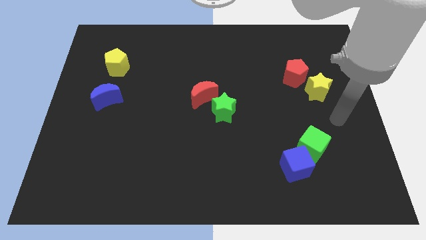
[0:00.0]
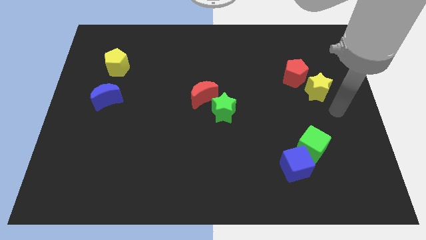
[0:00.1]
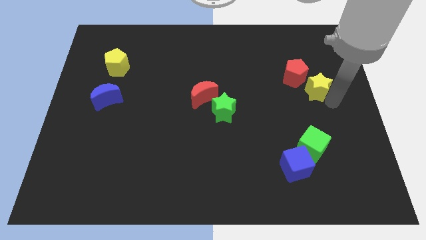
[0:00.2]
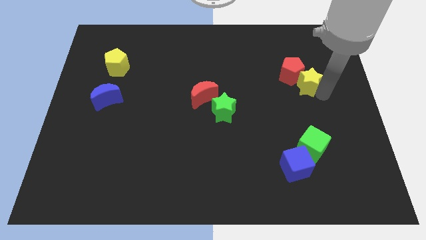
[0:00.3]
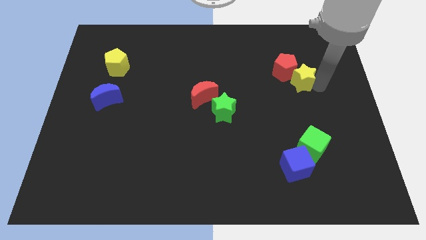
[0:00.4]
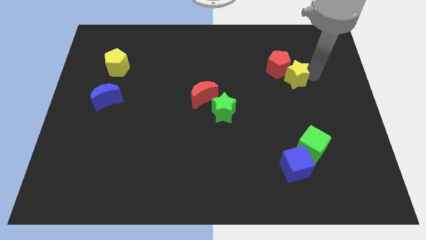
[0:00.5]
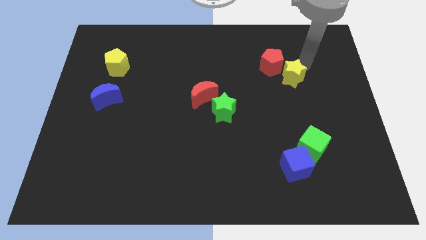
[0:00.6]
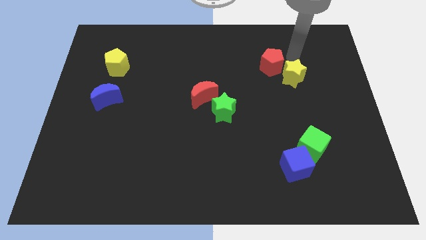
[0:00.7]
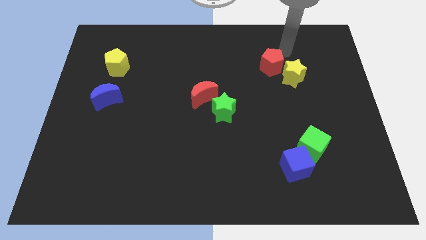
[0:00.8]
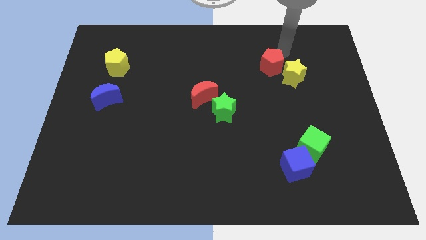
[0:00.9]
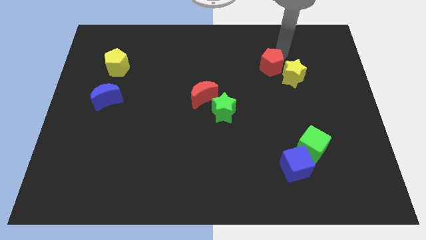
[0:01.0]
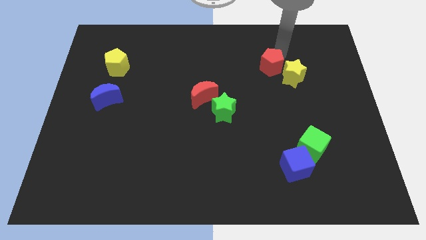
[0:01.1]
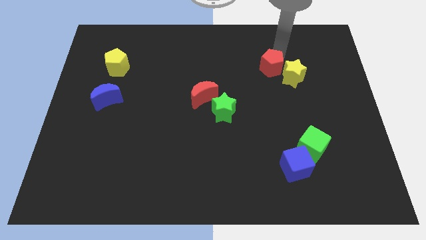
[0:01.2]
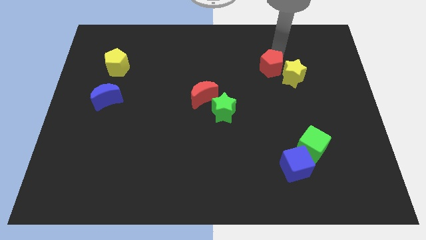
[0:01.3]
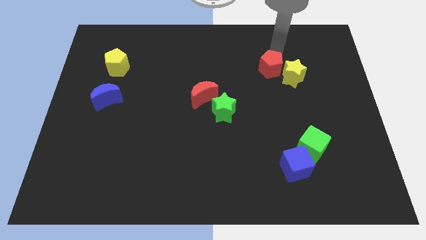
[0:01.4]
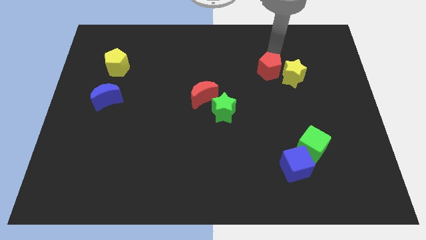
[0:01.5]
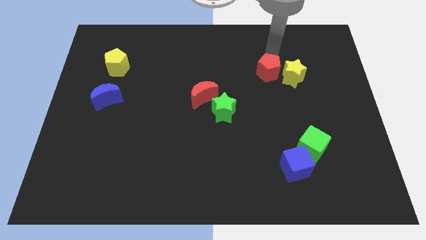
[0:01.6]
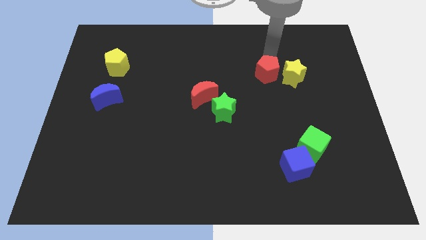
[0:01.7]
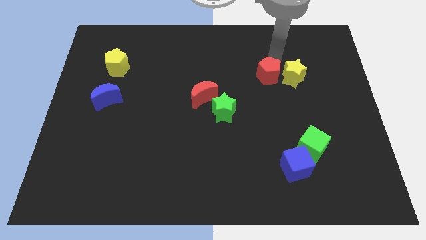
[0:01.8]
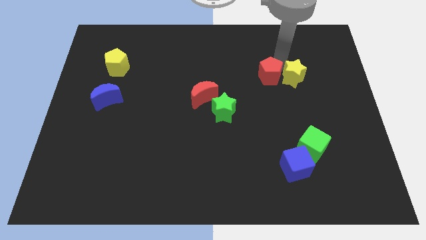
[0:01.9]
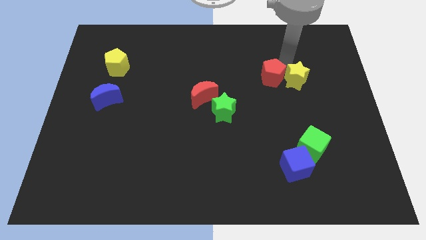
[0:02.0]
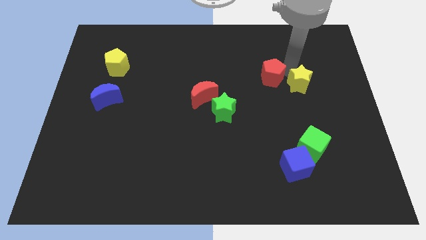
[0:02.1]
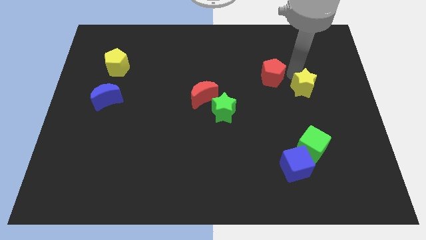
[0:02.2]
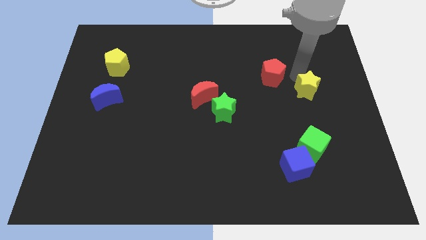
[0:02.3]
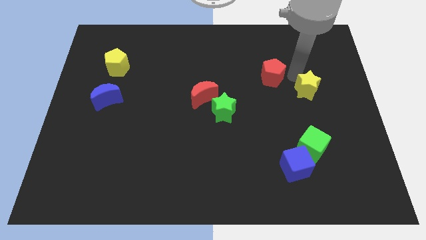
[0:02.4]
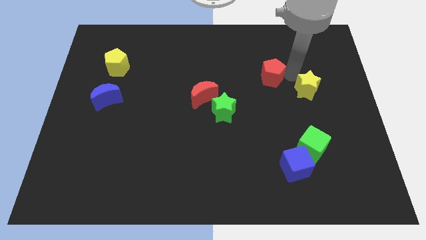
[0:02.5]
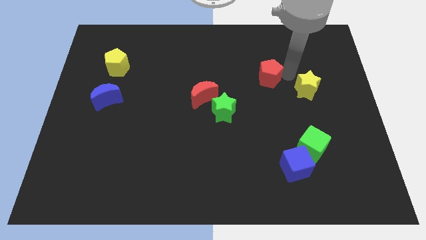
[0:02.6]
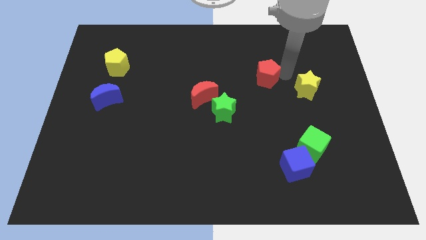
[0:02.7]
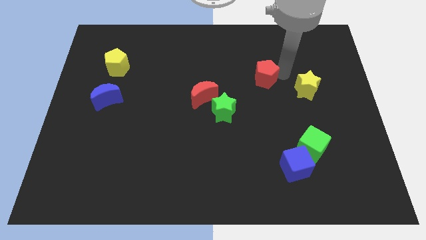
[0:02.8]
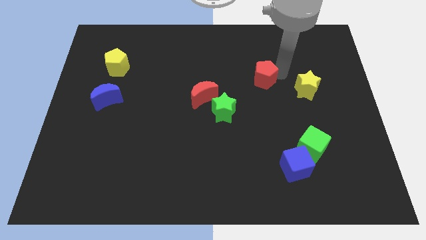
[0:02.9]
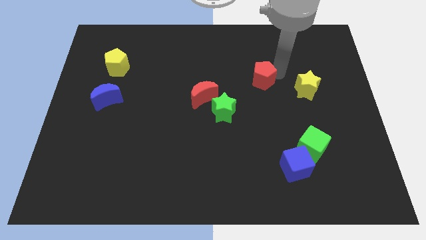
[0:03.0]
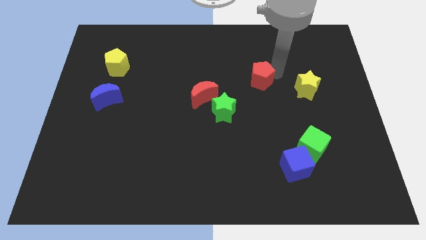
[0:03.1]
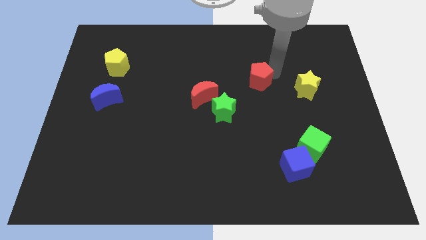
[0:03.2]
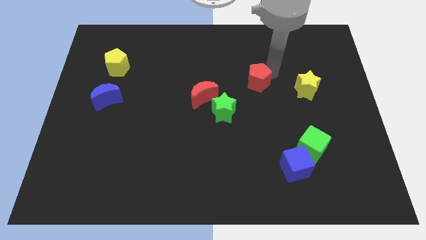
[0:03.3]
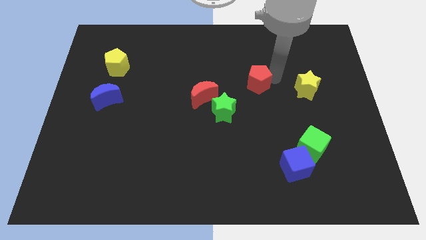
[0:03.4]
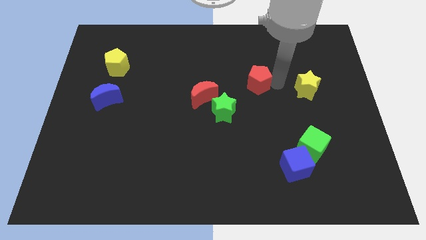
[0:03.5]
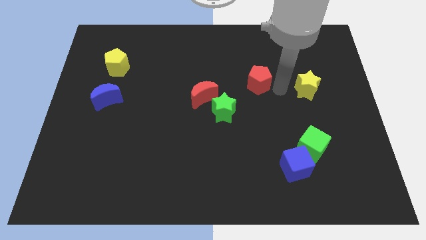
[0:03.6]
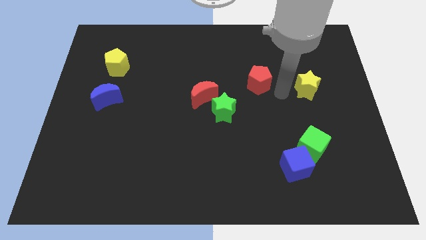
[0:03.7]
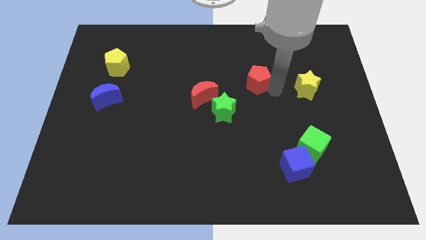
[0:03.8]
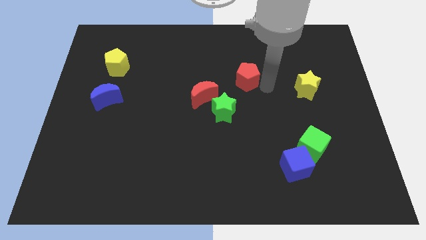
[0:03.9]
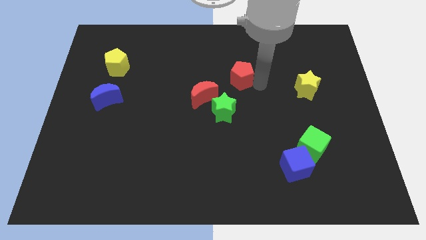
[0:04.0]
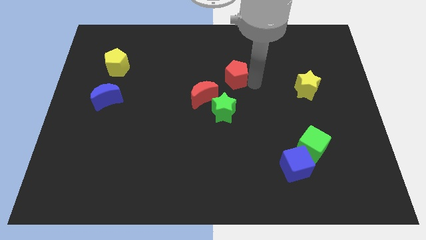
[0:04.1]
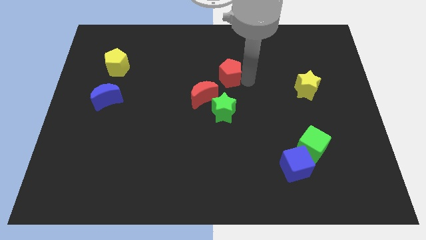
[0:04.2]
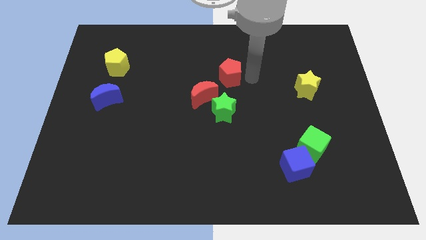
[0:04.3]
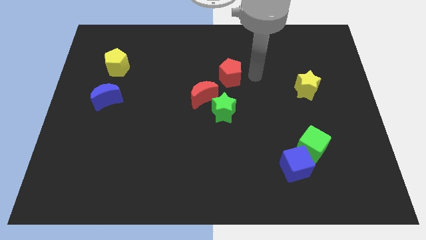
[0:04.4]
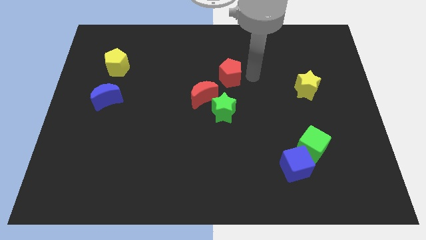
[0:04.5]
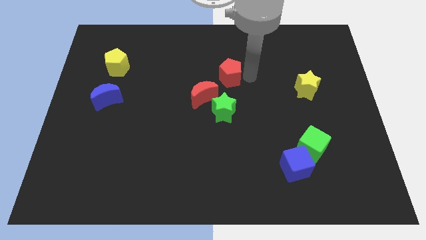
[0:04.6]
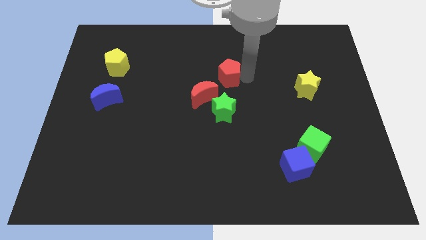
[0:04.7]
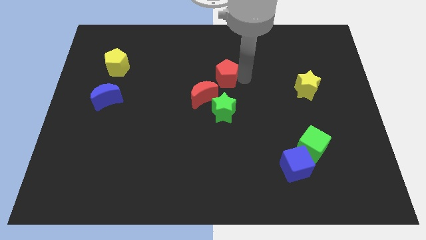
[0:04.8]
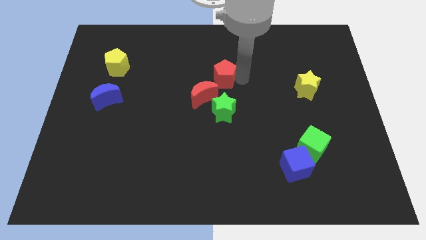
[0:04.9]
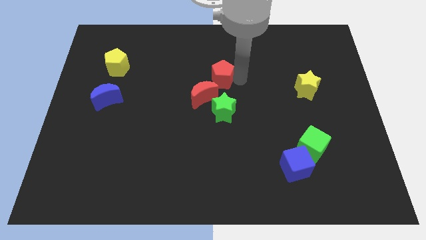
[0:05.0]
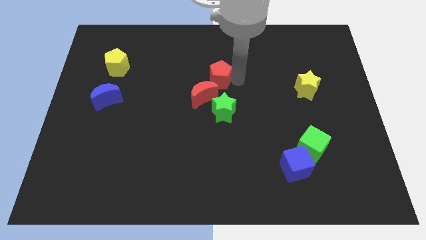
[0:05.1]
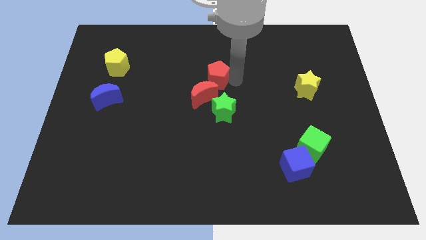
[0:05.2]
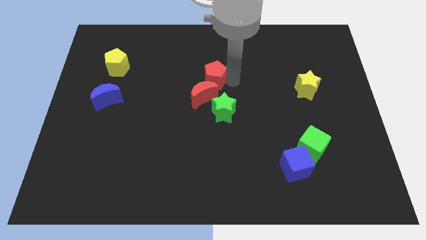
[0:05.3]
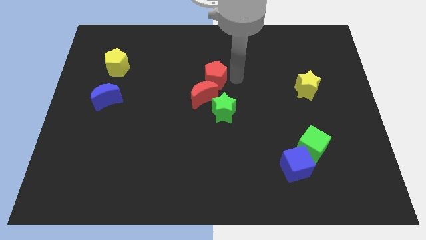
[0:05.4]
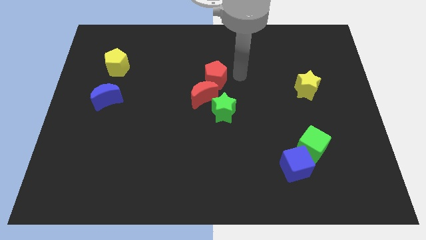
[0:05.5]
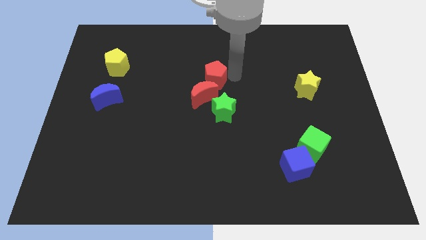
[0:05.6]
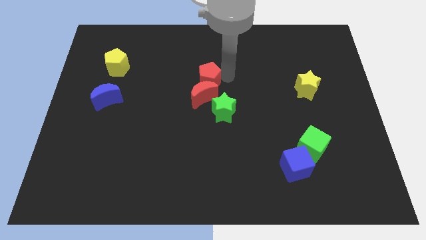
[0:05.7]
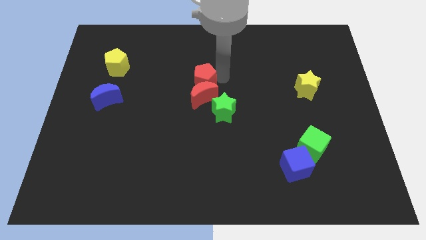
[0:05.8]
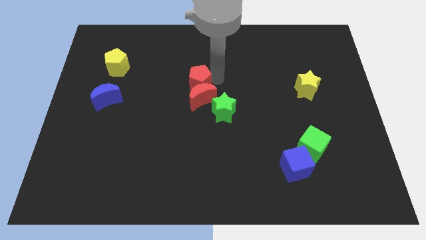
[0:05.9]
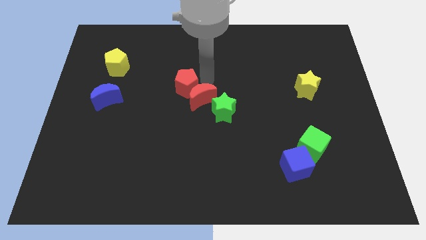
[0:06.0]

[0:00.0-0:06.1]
slide the red pentagon to the left of the red moon

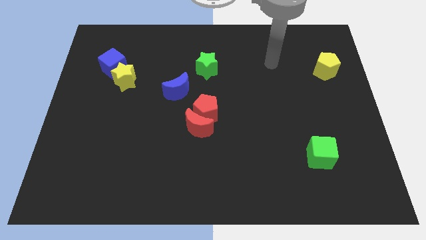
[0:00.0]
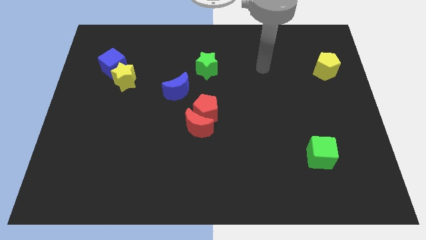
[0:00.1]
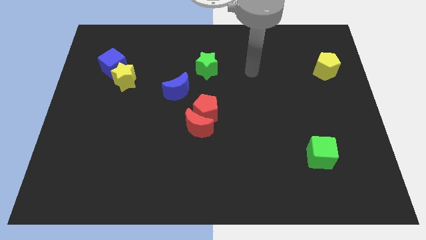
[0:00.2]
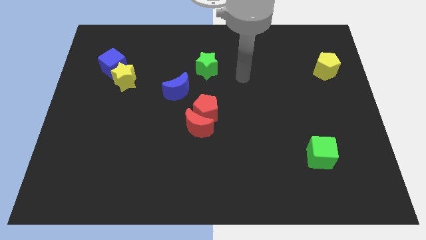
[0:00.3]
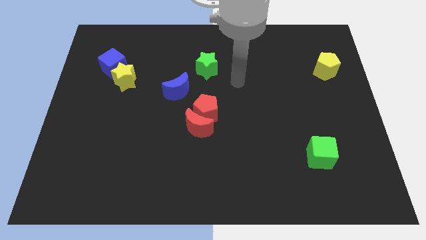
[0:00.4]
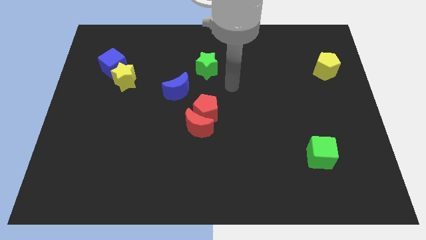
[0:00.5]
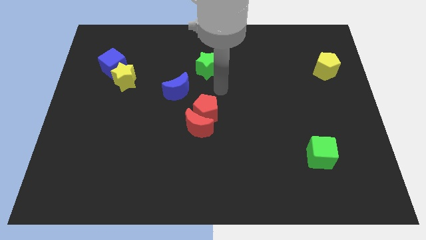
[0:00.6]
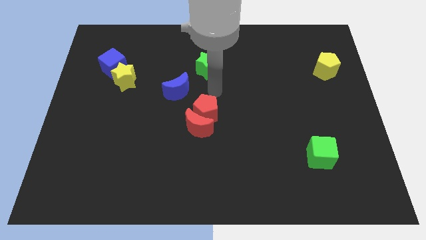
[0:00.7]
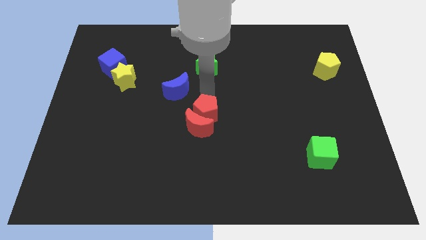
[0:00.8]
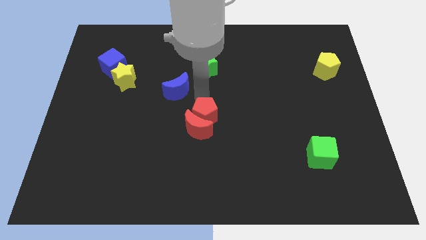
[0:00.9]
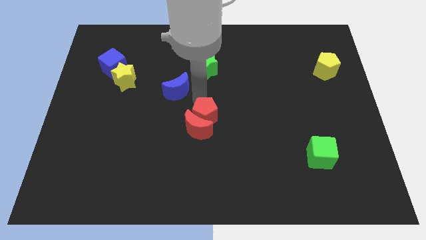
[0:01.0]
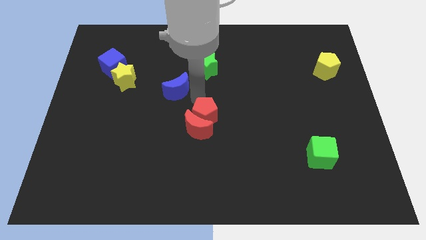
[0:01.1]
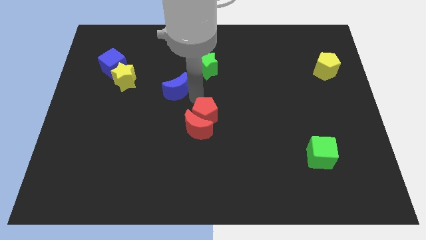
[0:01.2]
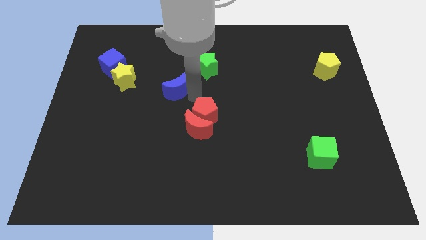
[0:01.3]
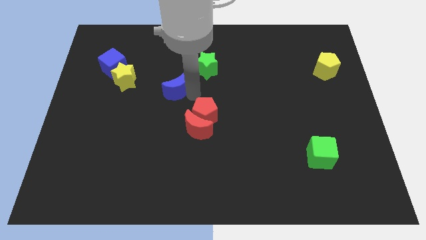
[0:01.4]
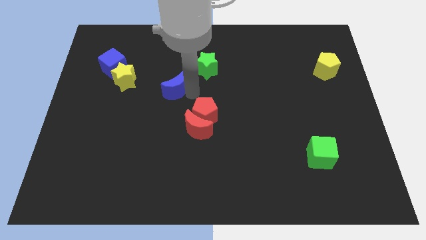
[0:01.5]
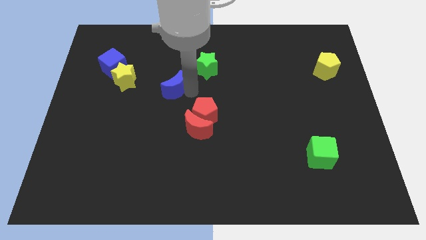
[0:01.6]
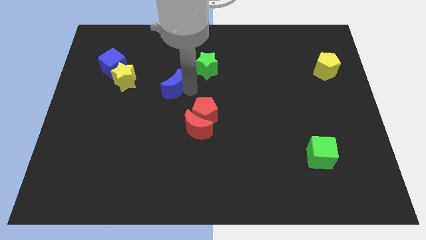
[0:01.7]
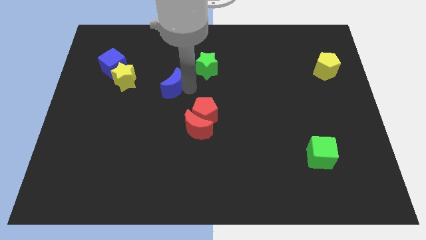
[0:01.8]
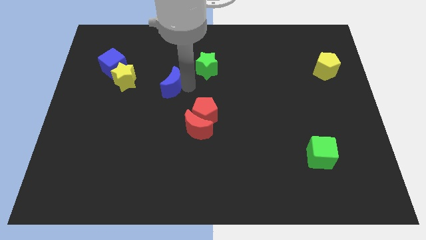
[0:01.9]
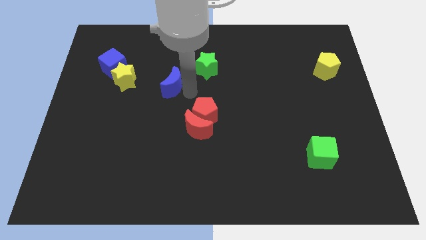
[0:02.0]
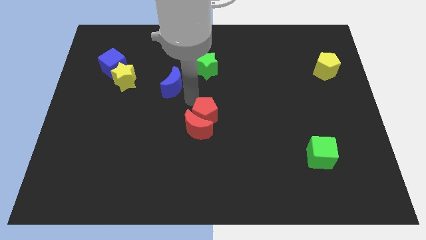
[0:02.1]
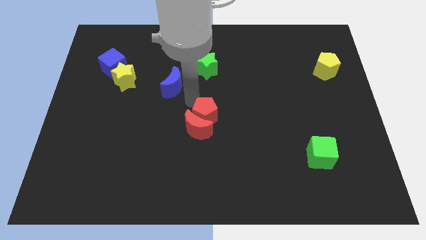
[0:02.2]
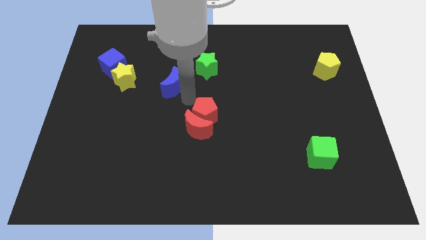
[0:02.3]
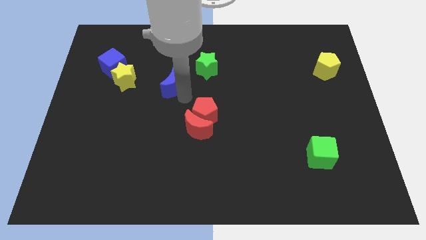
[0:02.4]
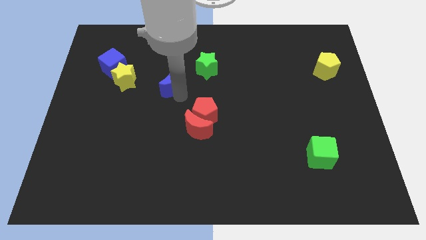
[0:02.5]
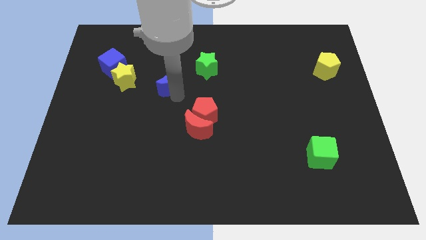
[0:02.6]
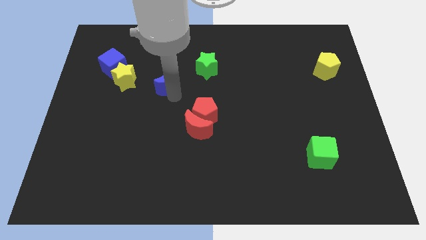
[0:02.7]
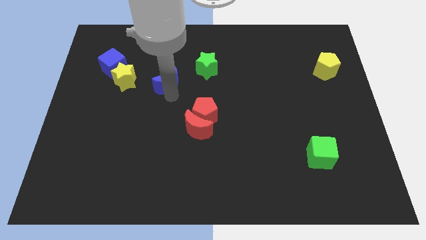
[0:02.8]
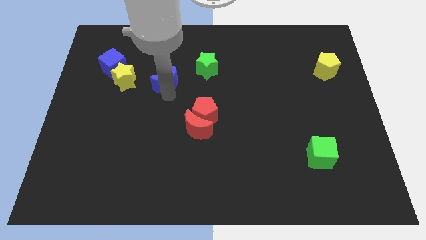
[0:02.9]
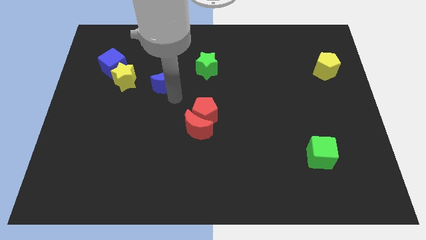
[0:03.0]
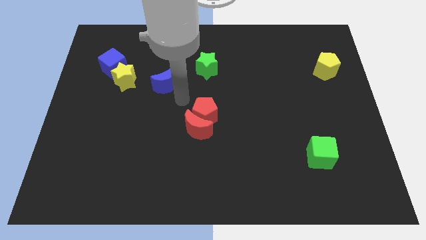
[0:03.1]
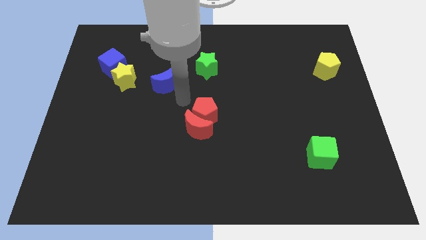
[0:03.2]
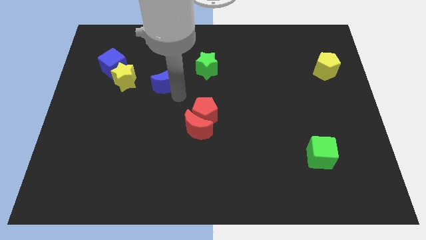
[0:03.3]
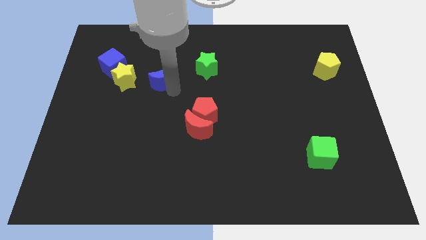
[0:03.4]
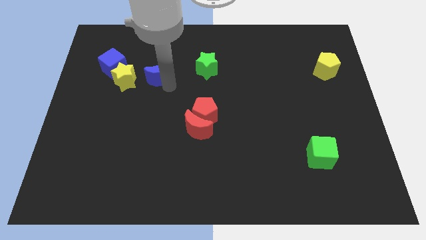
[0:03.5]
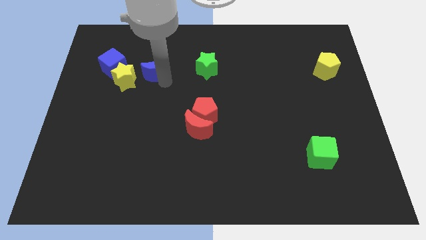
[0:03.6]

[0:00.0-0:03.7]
push the blue moon diagonally up and to the right of the yellow star
